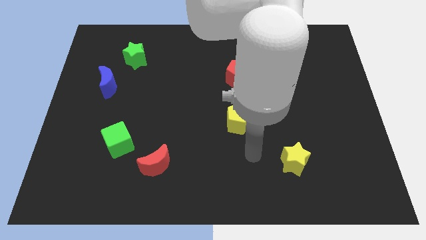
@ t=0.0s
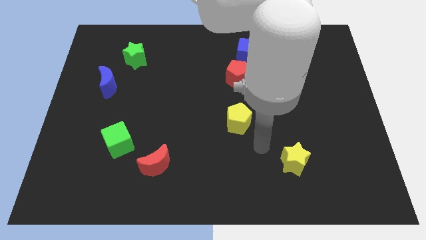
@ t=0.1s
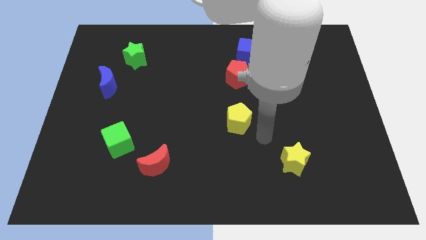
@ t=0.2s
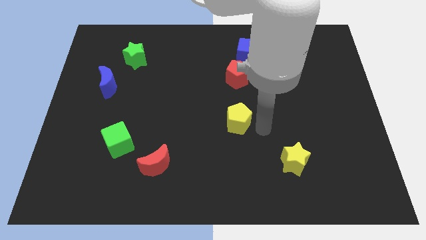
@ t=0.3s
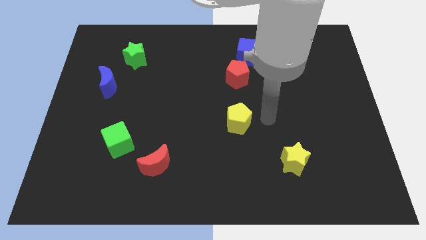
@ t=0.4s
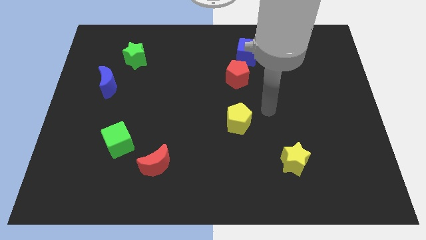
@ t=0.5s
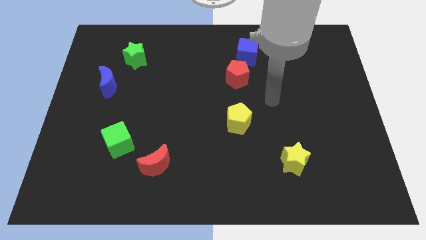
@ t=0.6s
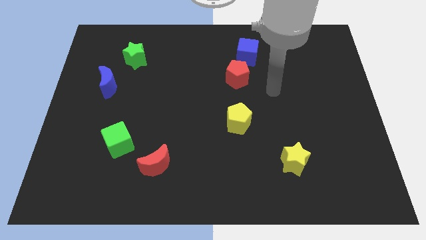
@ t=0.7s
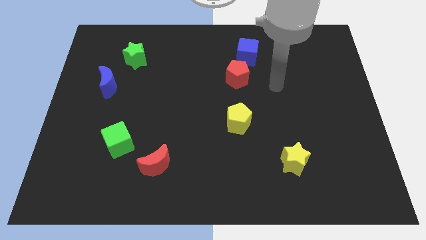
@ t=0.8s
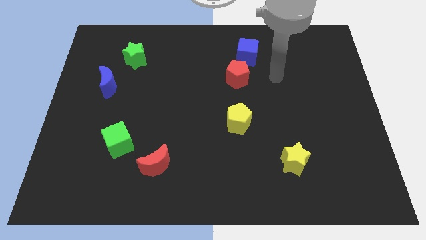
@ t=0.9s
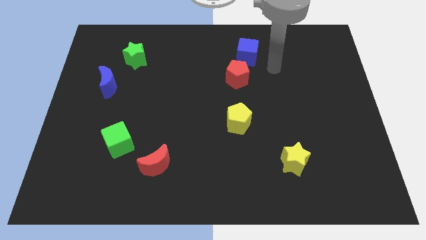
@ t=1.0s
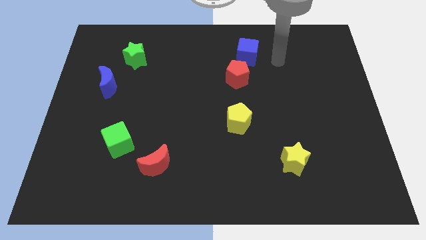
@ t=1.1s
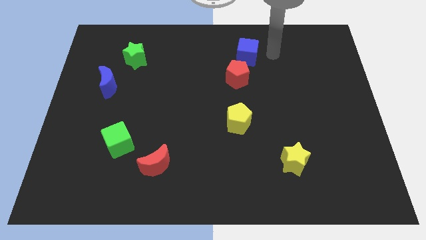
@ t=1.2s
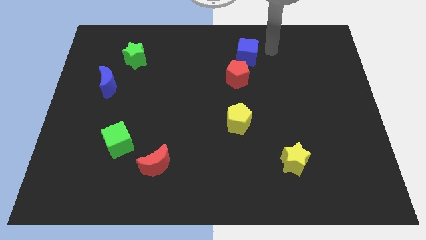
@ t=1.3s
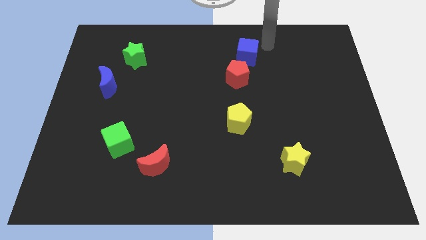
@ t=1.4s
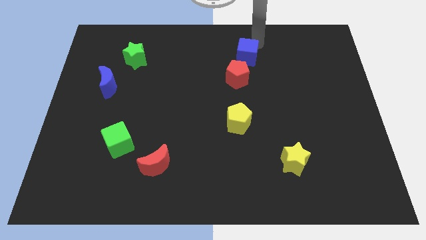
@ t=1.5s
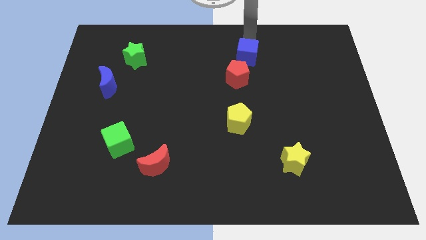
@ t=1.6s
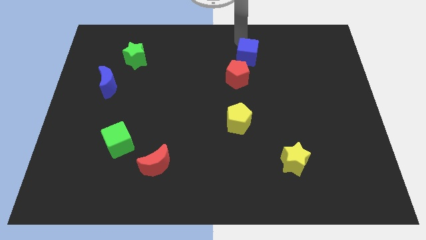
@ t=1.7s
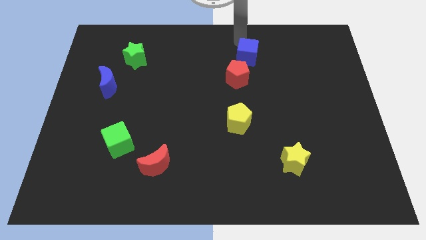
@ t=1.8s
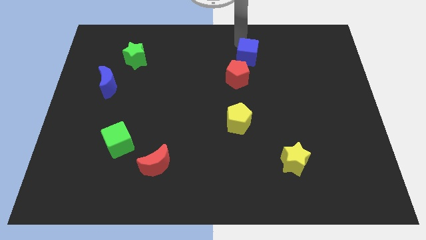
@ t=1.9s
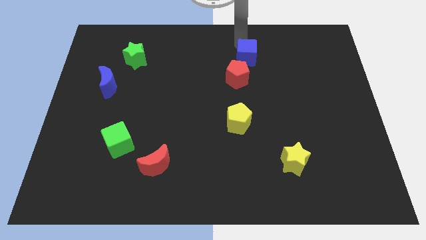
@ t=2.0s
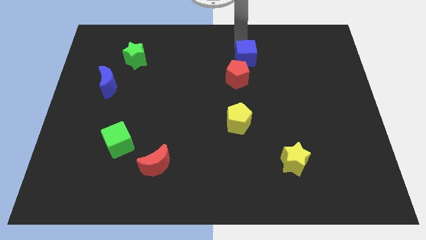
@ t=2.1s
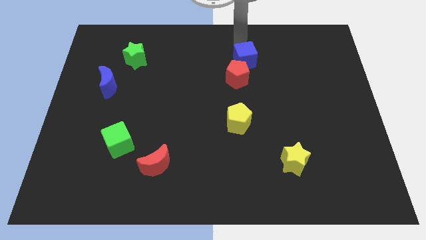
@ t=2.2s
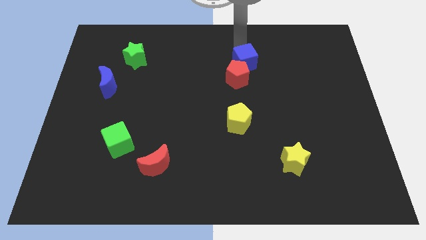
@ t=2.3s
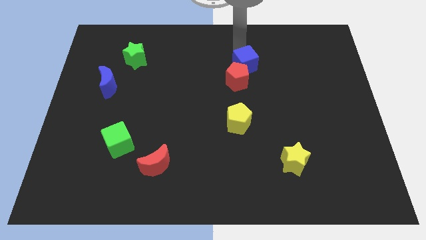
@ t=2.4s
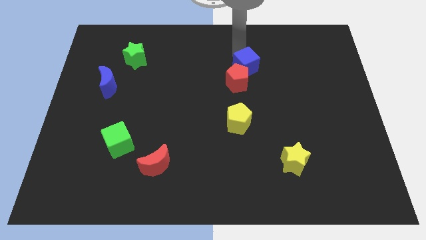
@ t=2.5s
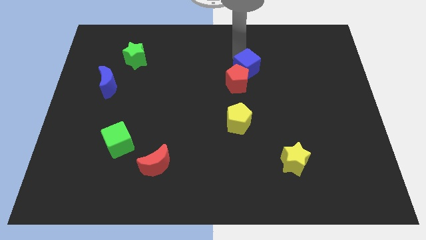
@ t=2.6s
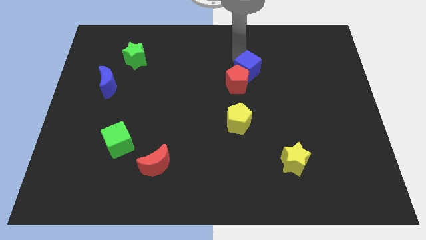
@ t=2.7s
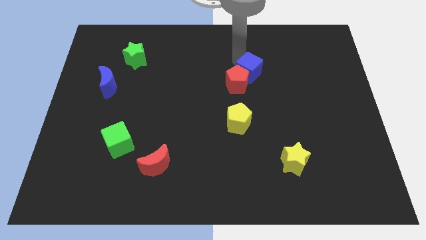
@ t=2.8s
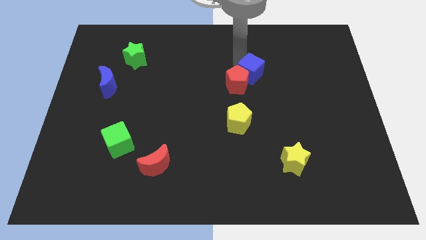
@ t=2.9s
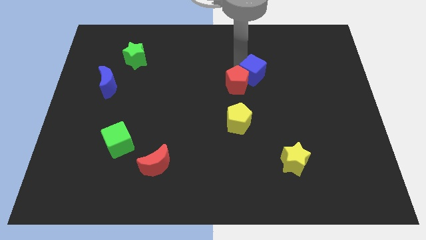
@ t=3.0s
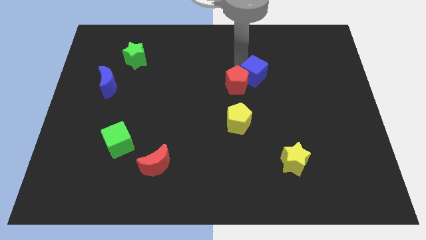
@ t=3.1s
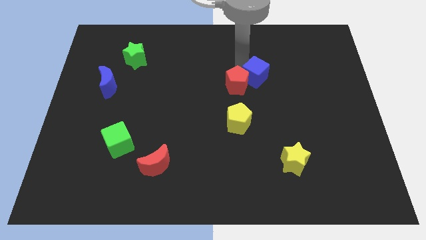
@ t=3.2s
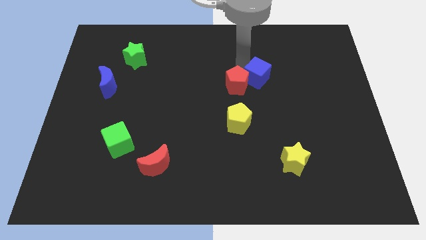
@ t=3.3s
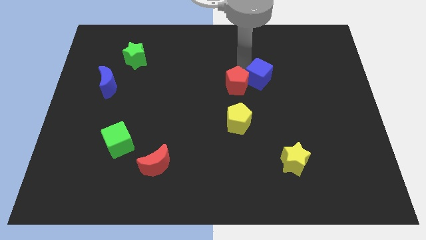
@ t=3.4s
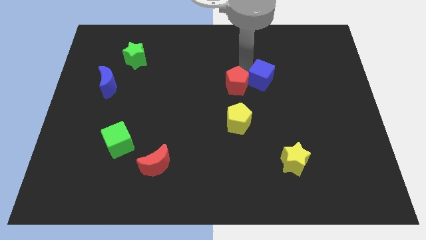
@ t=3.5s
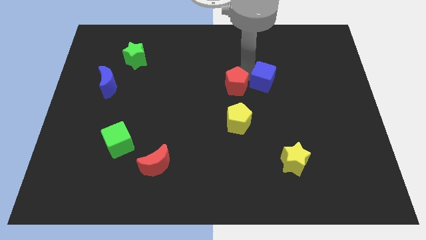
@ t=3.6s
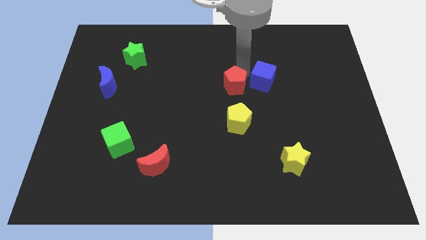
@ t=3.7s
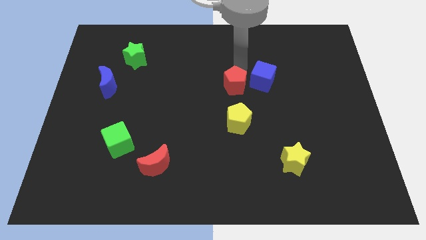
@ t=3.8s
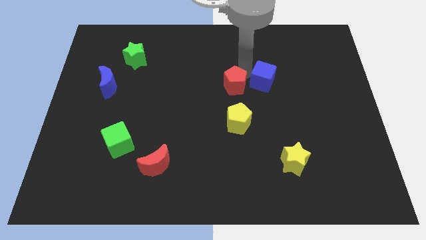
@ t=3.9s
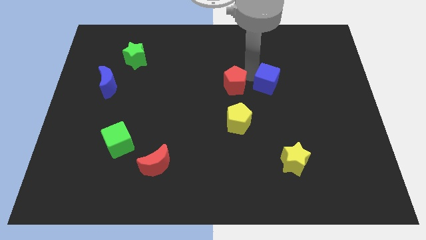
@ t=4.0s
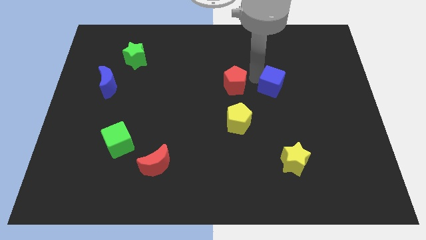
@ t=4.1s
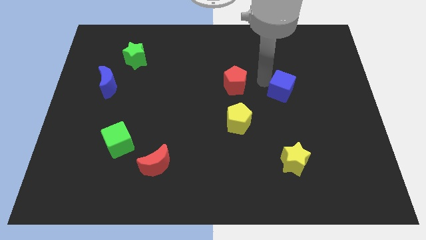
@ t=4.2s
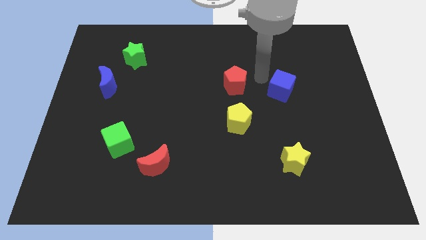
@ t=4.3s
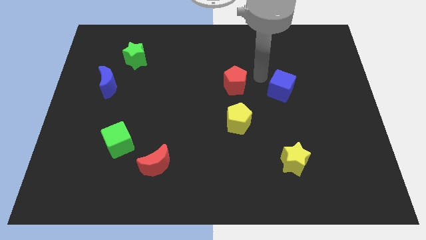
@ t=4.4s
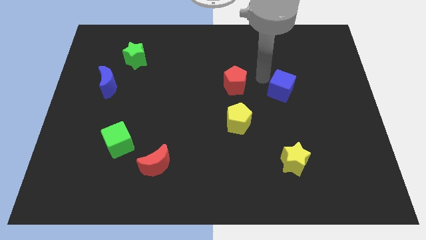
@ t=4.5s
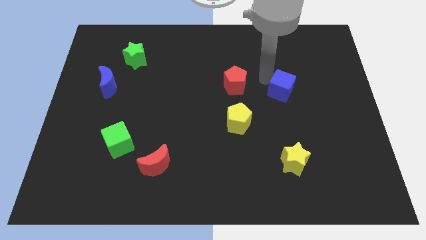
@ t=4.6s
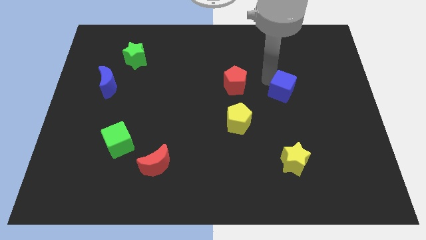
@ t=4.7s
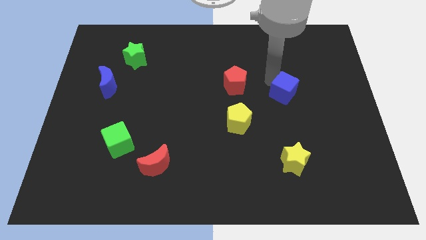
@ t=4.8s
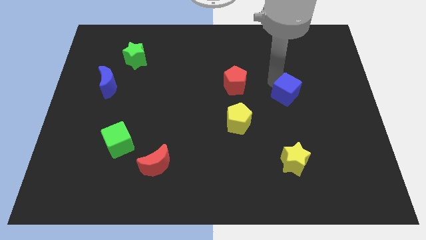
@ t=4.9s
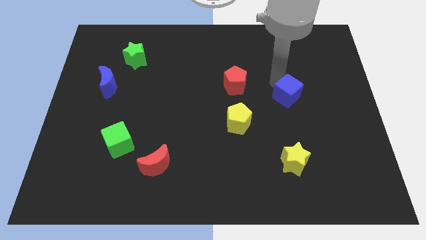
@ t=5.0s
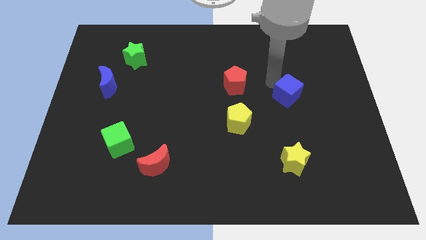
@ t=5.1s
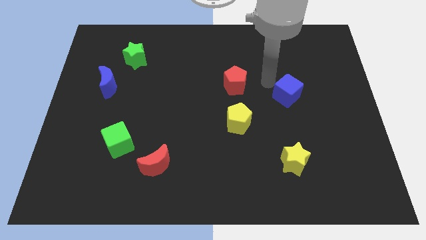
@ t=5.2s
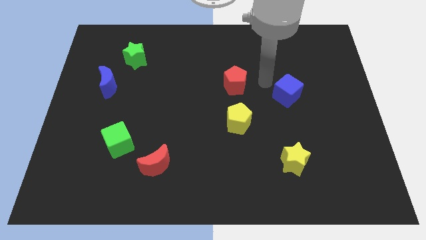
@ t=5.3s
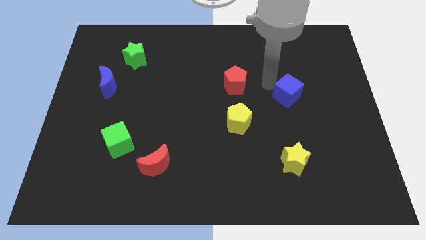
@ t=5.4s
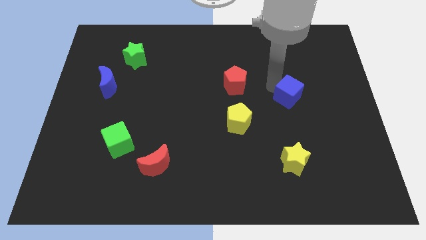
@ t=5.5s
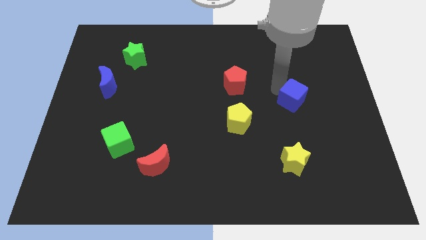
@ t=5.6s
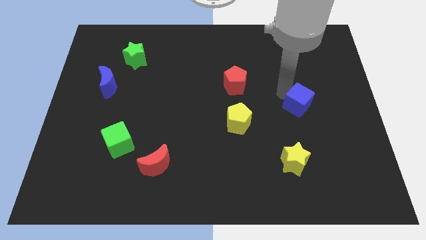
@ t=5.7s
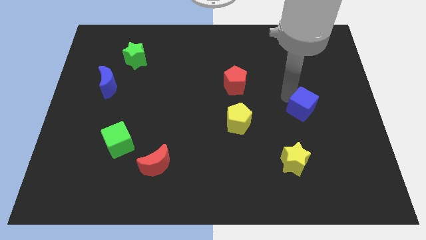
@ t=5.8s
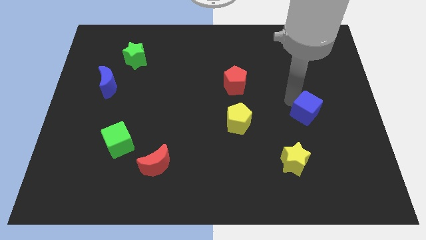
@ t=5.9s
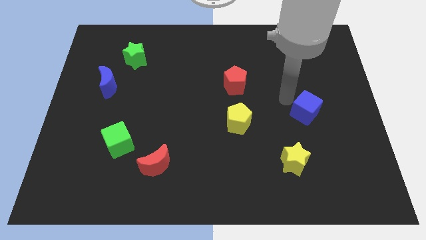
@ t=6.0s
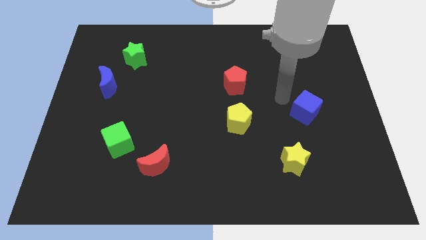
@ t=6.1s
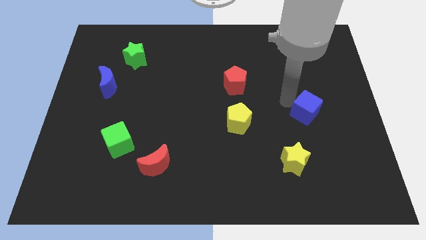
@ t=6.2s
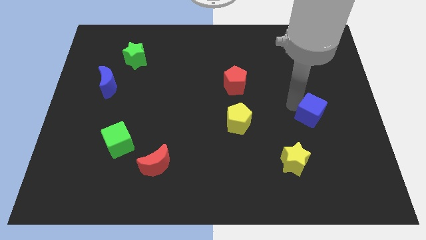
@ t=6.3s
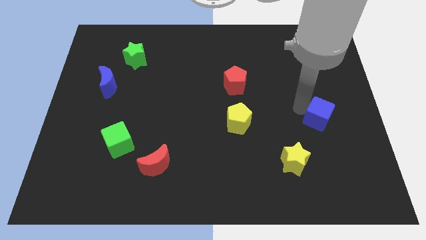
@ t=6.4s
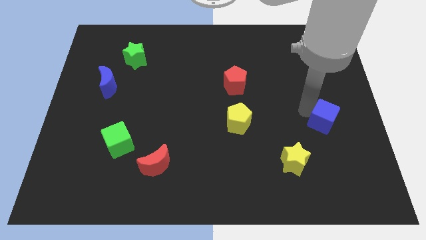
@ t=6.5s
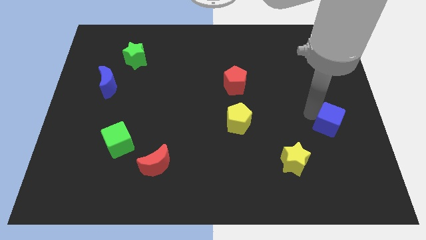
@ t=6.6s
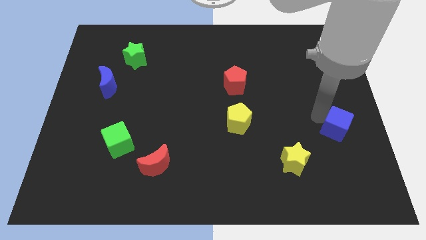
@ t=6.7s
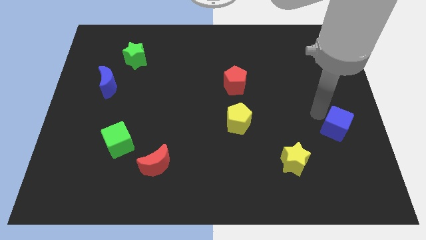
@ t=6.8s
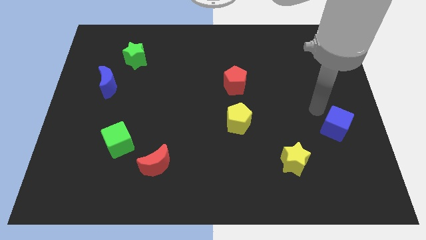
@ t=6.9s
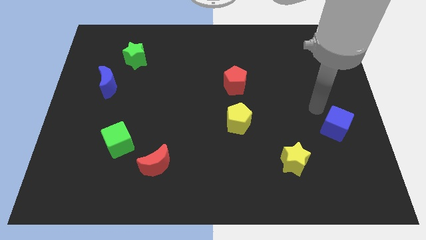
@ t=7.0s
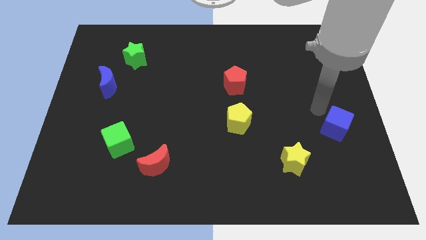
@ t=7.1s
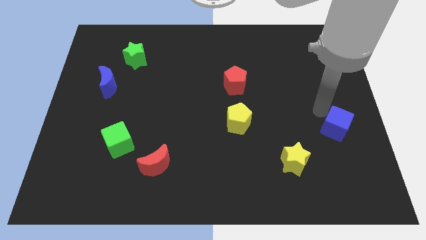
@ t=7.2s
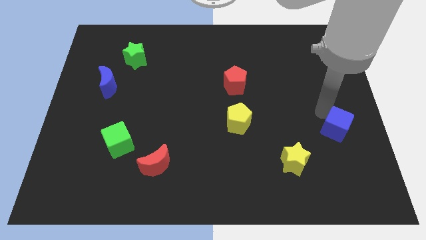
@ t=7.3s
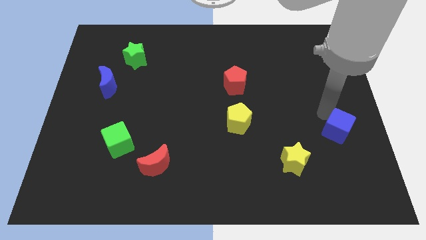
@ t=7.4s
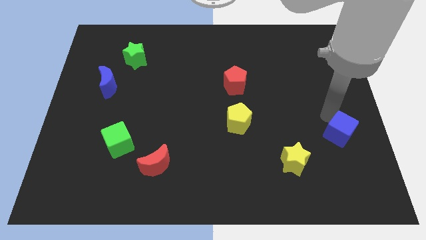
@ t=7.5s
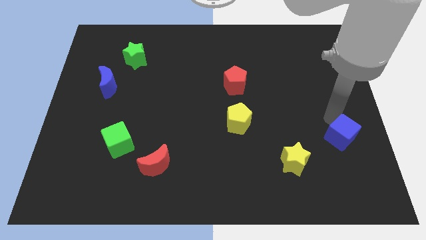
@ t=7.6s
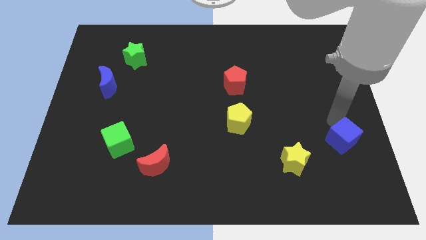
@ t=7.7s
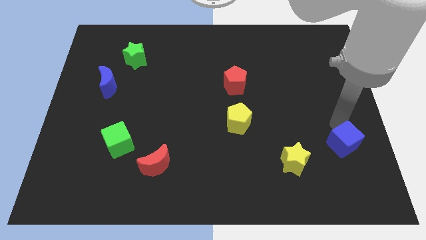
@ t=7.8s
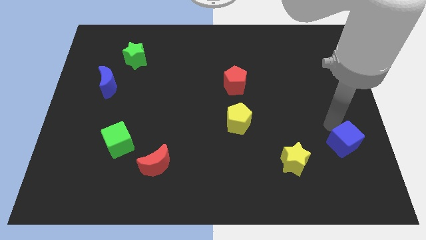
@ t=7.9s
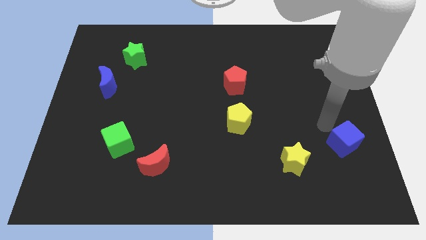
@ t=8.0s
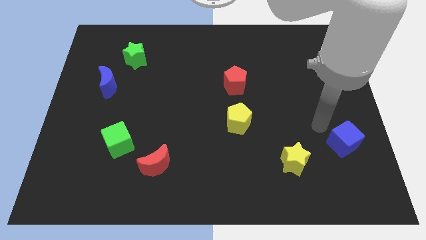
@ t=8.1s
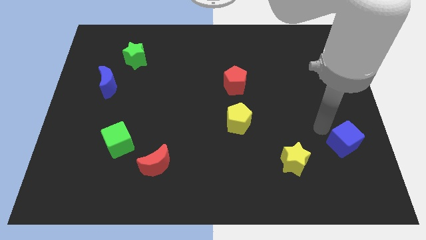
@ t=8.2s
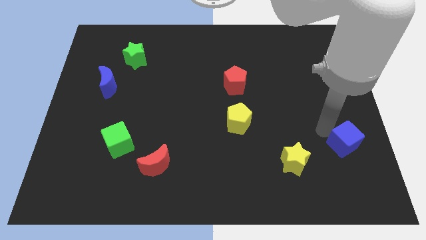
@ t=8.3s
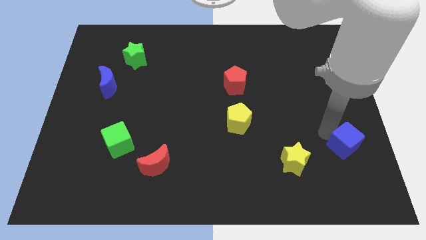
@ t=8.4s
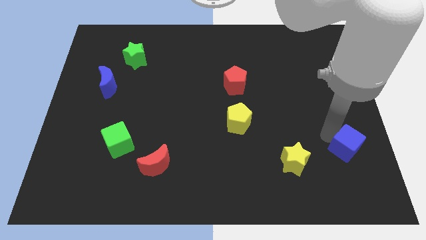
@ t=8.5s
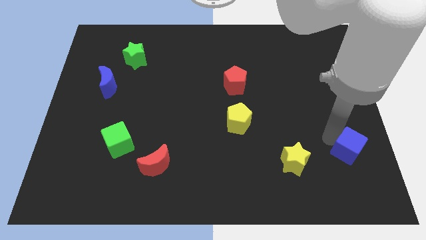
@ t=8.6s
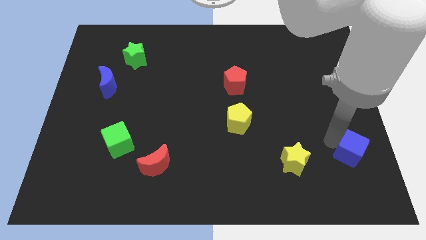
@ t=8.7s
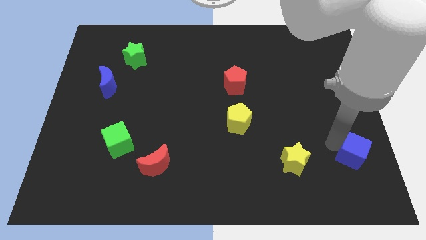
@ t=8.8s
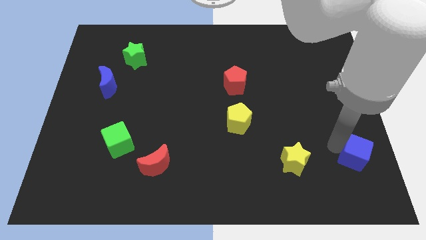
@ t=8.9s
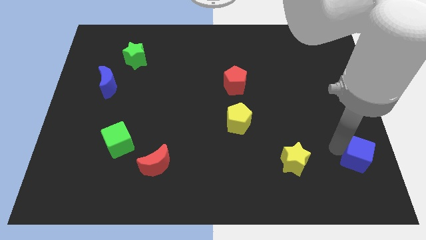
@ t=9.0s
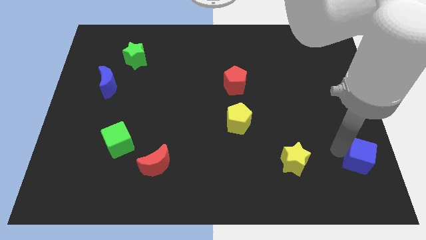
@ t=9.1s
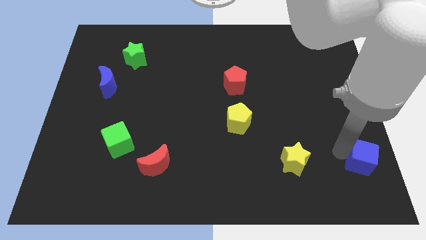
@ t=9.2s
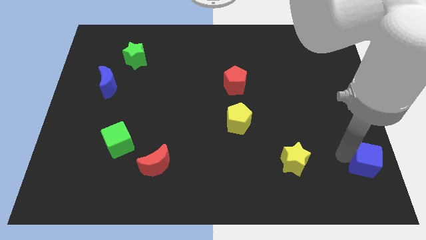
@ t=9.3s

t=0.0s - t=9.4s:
slide the blue cube to the bottom right corner
